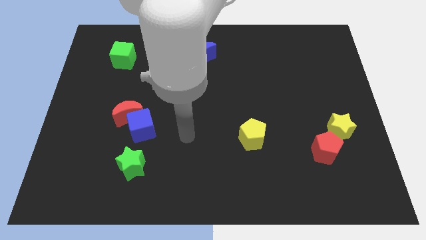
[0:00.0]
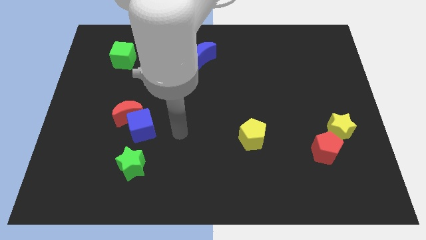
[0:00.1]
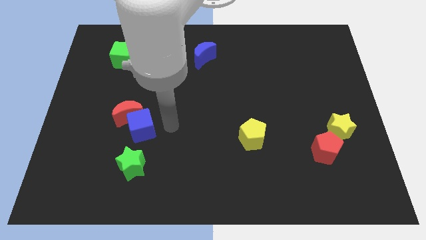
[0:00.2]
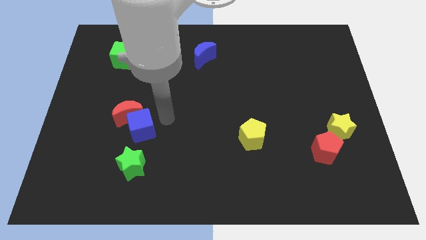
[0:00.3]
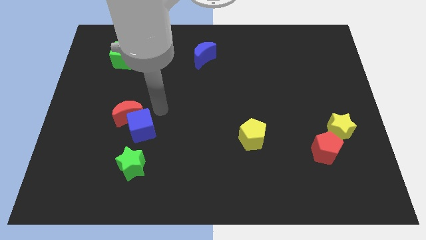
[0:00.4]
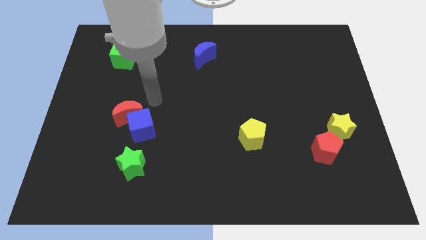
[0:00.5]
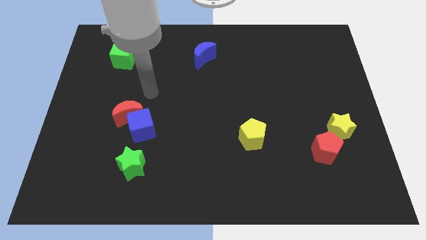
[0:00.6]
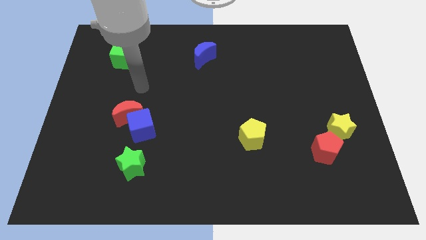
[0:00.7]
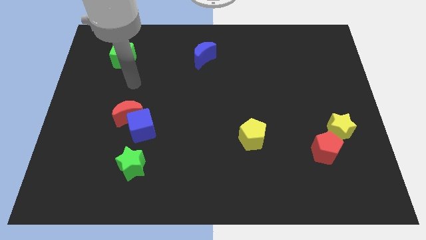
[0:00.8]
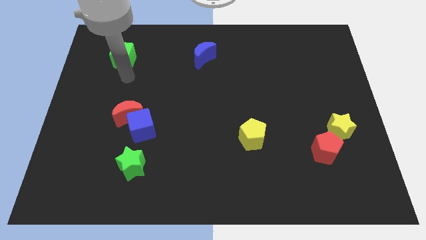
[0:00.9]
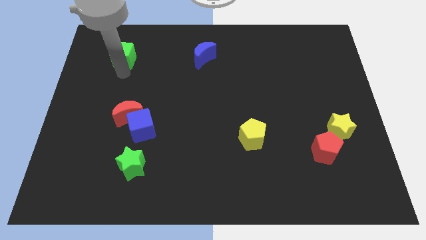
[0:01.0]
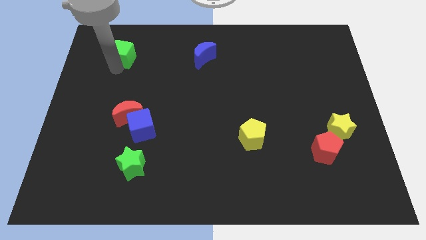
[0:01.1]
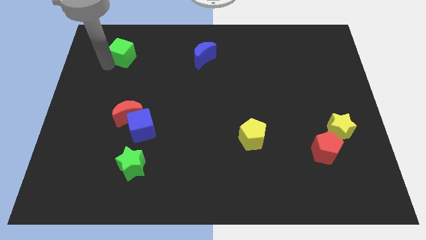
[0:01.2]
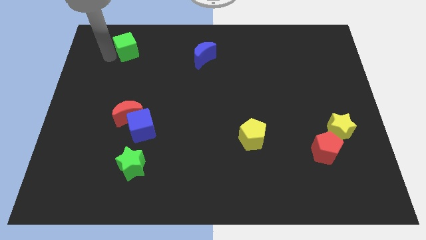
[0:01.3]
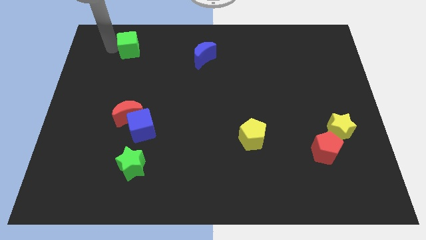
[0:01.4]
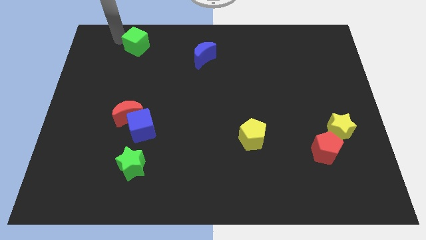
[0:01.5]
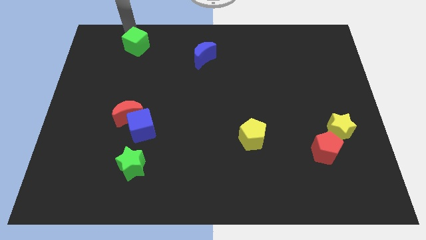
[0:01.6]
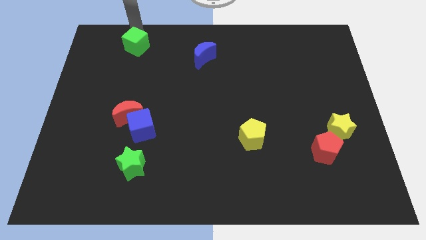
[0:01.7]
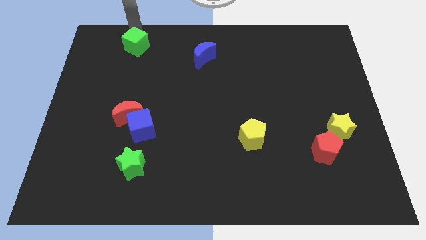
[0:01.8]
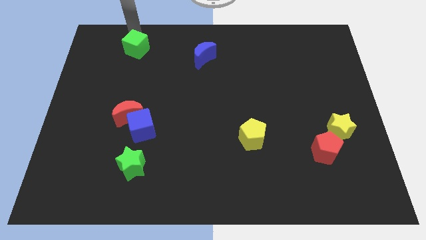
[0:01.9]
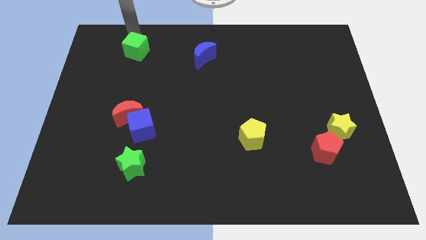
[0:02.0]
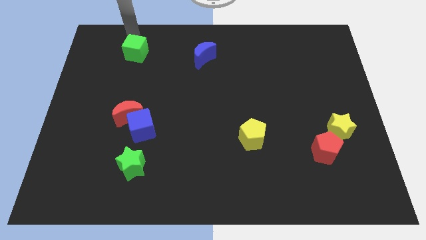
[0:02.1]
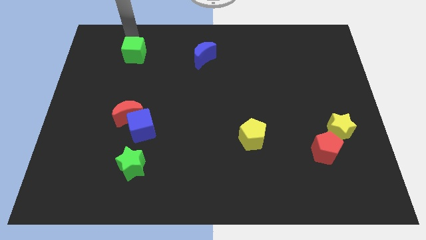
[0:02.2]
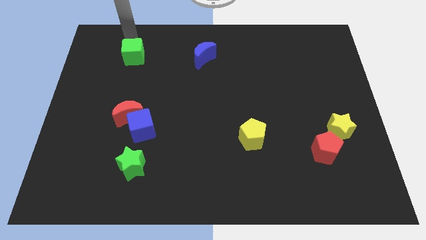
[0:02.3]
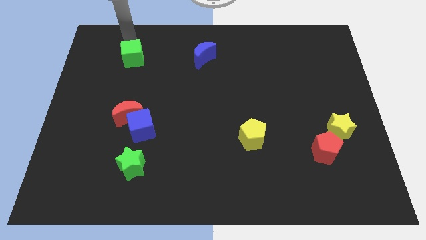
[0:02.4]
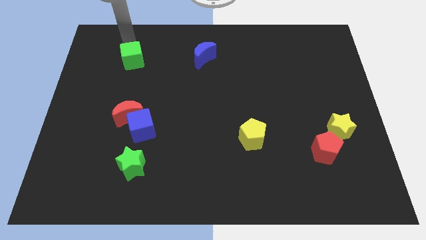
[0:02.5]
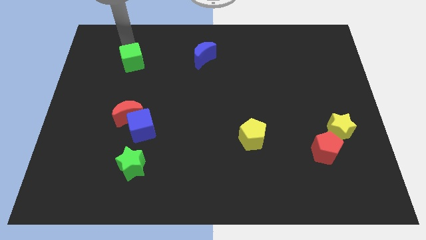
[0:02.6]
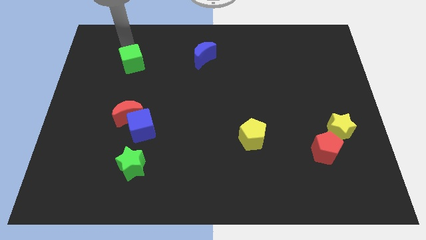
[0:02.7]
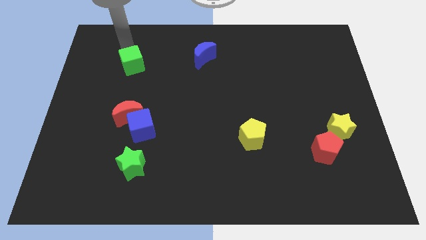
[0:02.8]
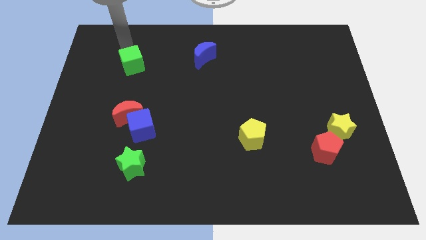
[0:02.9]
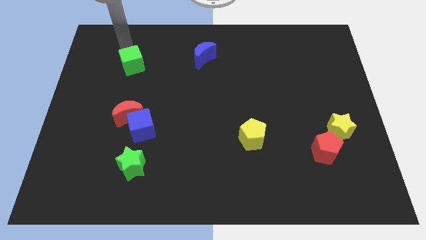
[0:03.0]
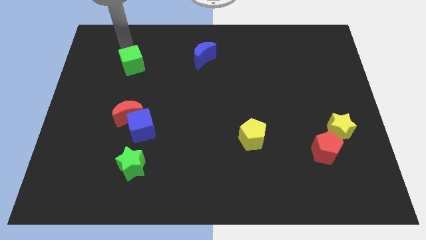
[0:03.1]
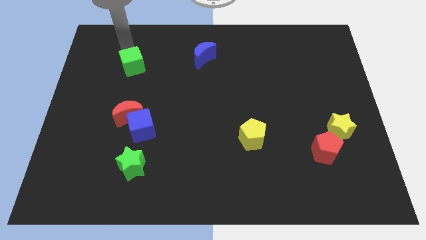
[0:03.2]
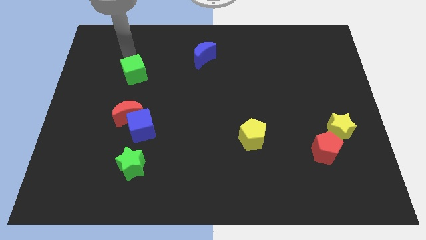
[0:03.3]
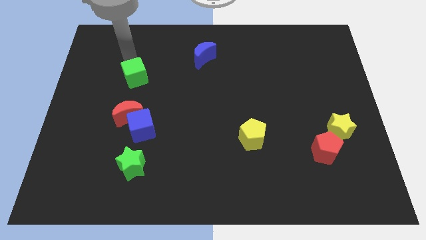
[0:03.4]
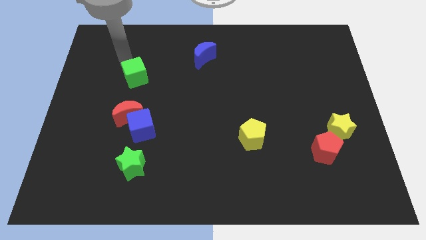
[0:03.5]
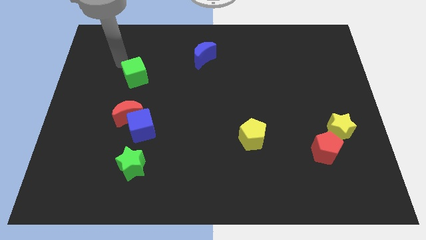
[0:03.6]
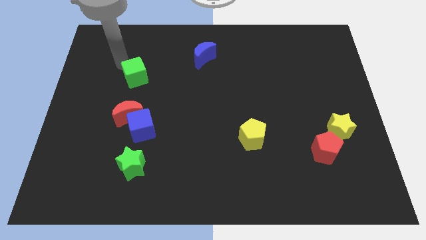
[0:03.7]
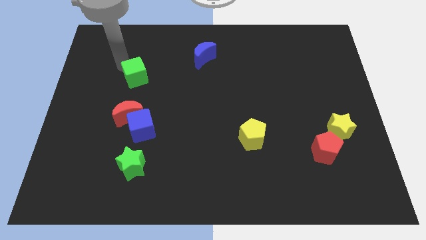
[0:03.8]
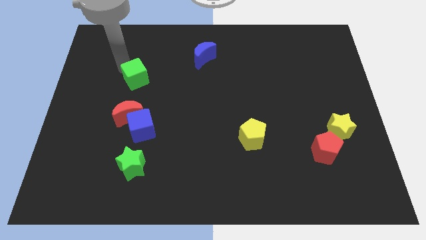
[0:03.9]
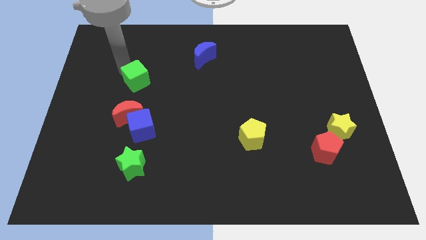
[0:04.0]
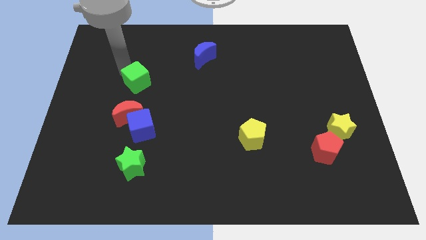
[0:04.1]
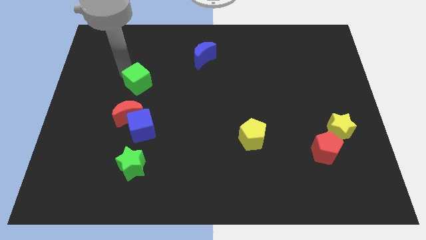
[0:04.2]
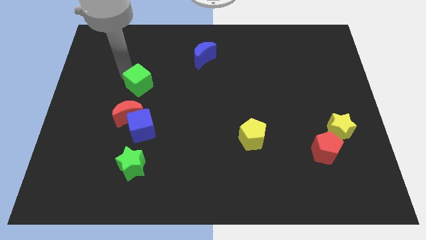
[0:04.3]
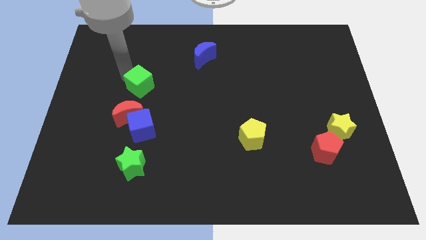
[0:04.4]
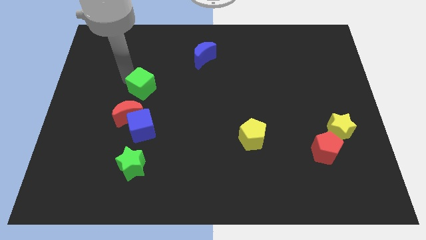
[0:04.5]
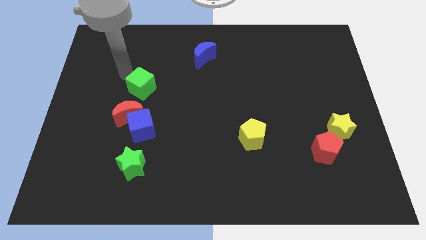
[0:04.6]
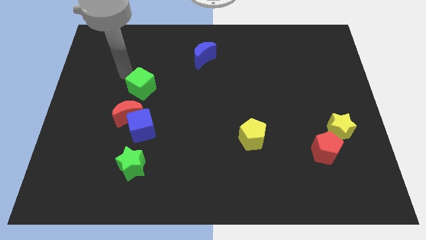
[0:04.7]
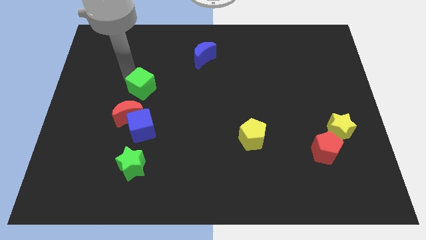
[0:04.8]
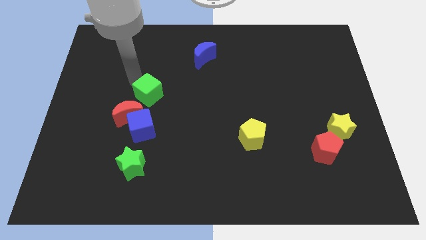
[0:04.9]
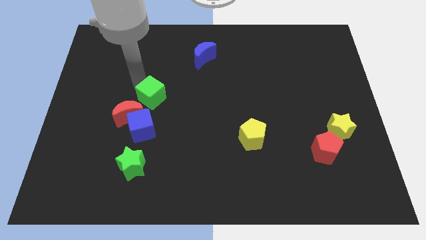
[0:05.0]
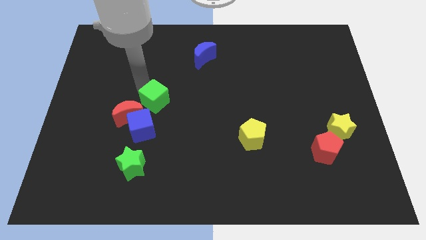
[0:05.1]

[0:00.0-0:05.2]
slide the green cube just right of the red moon
